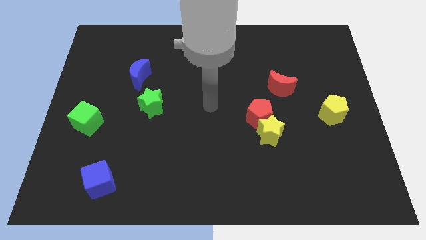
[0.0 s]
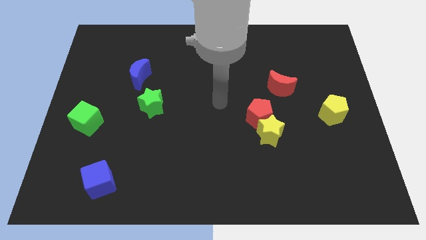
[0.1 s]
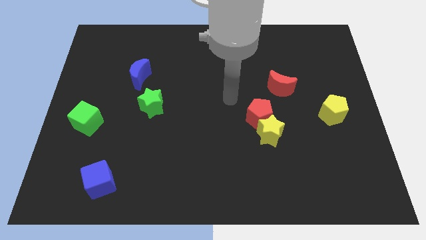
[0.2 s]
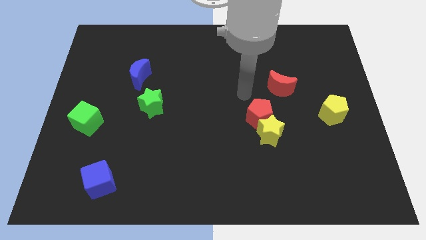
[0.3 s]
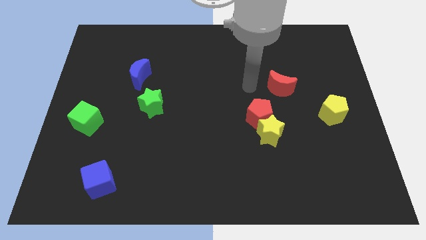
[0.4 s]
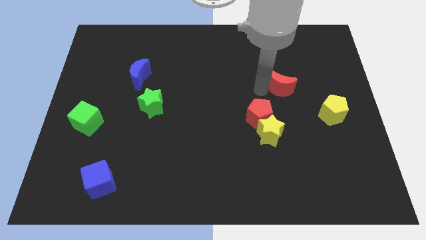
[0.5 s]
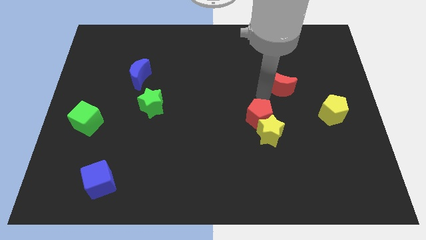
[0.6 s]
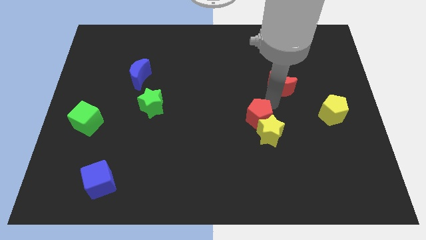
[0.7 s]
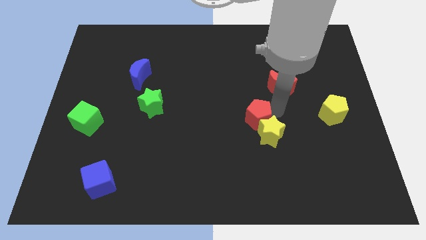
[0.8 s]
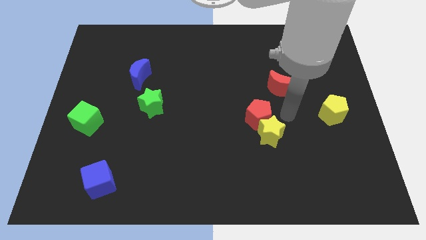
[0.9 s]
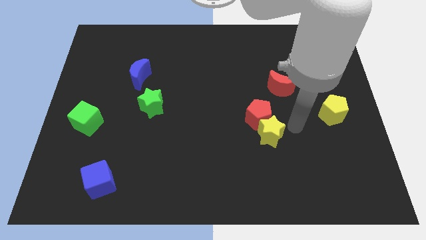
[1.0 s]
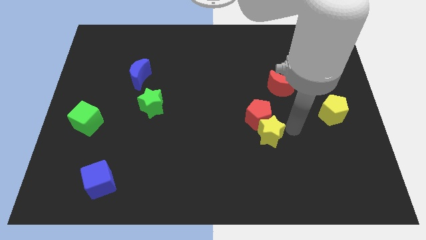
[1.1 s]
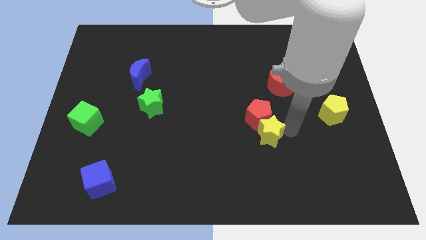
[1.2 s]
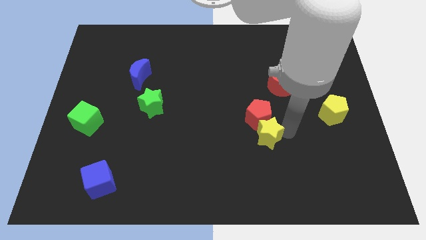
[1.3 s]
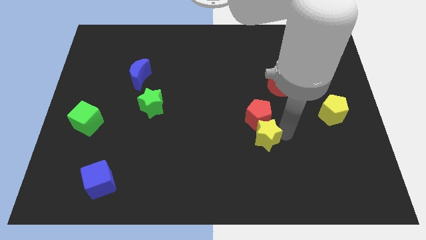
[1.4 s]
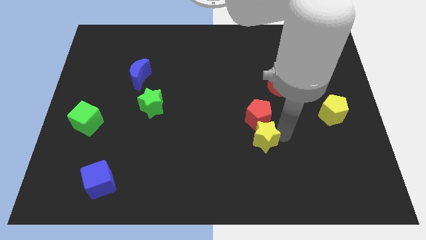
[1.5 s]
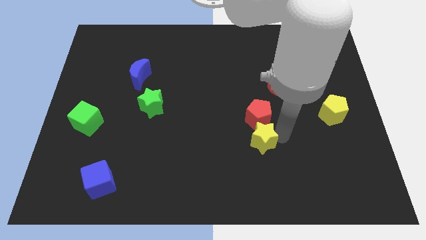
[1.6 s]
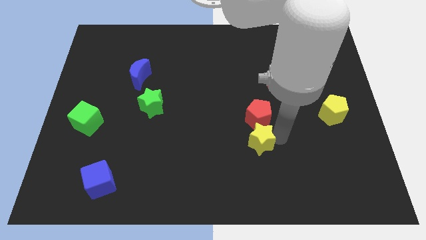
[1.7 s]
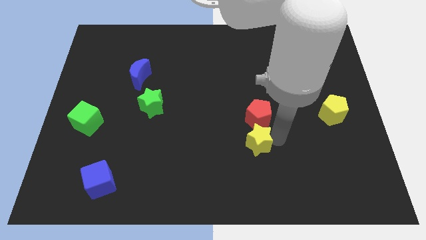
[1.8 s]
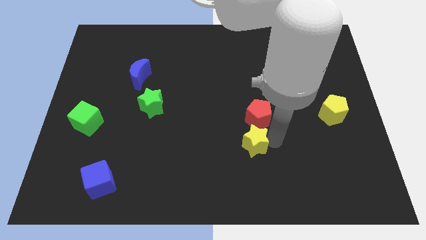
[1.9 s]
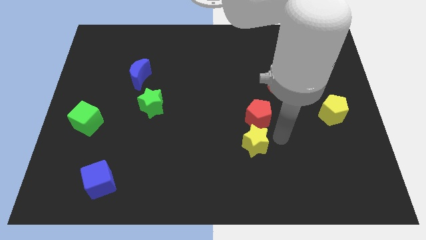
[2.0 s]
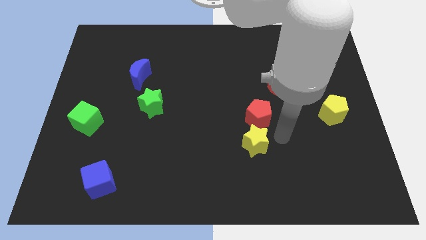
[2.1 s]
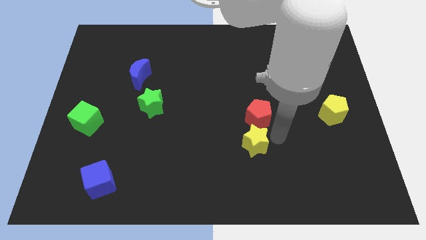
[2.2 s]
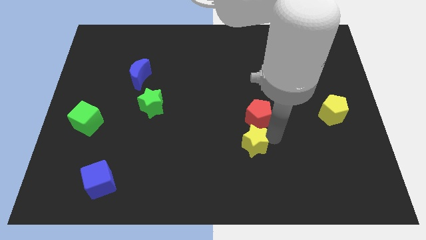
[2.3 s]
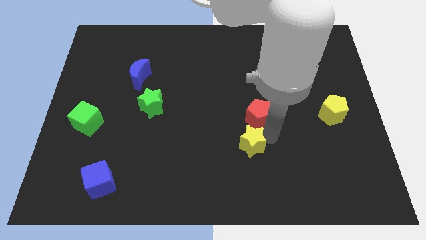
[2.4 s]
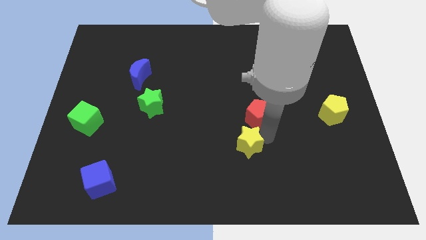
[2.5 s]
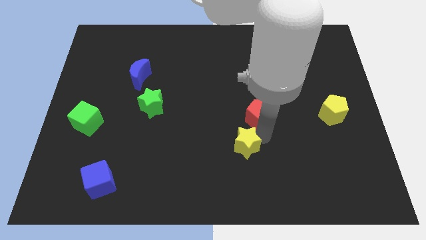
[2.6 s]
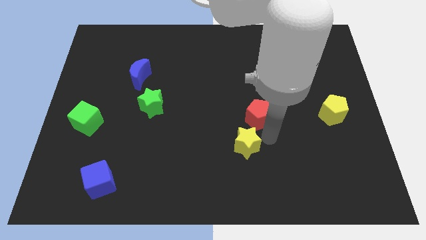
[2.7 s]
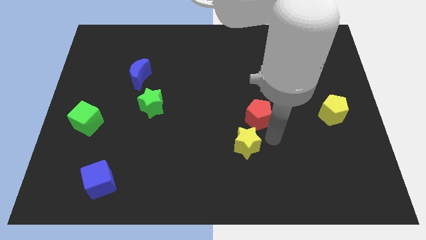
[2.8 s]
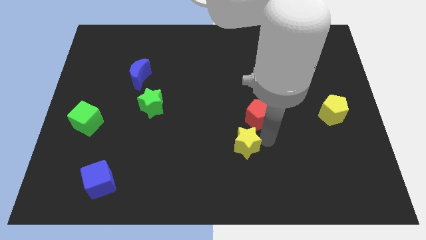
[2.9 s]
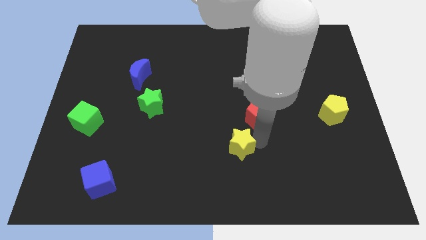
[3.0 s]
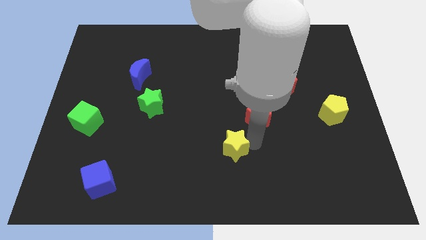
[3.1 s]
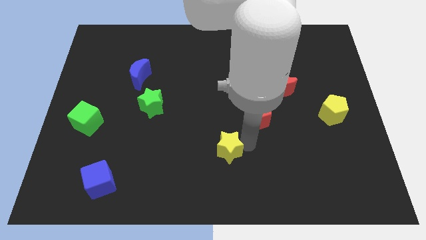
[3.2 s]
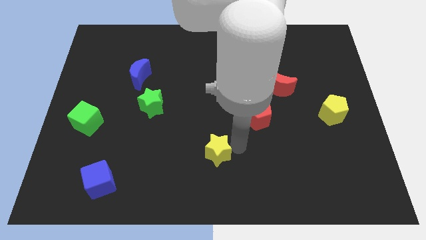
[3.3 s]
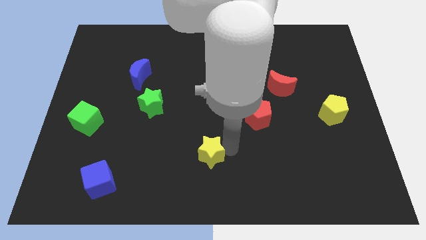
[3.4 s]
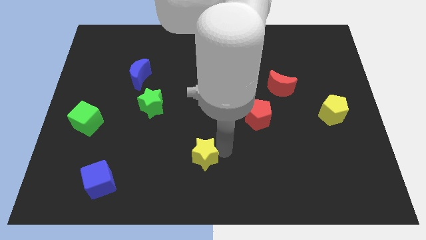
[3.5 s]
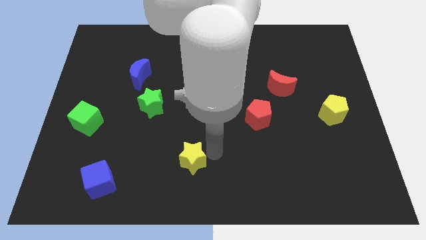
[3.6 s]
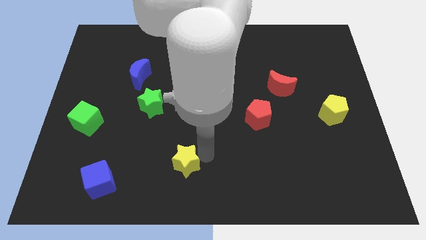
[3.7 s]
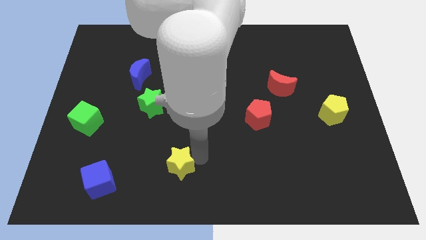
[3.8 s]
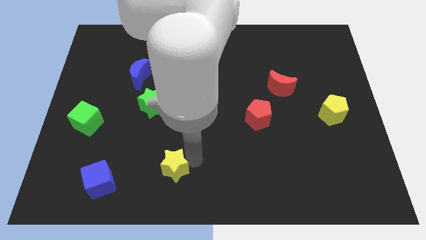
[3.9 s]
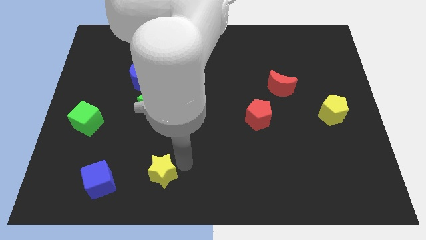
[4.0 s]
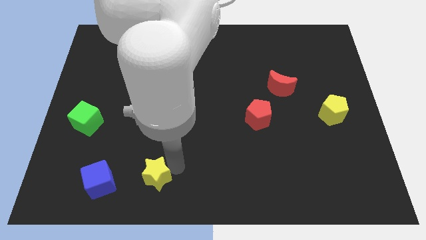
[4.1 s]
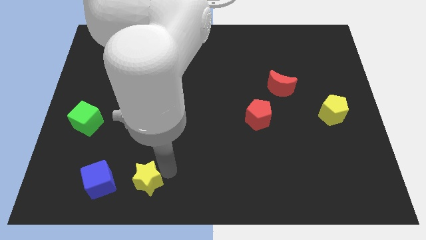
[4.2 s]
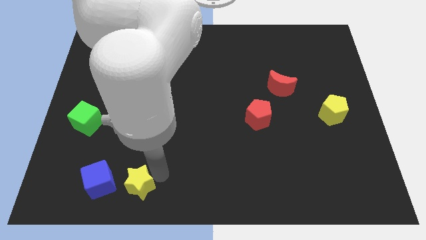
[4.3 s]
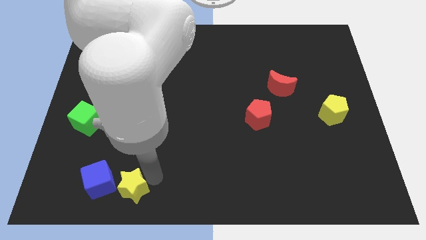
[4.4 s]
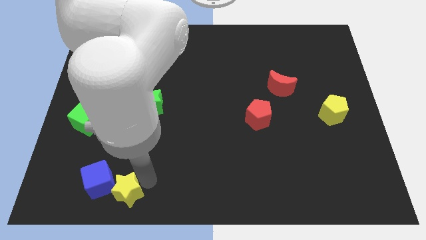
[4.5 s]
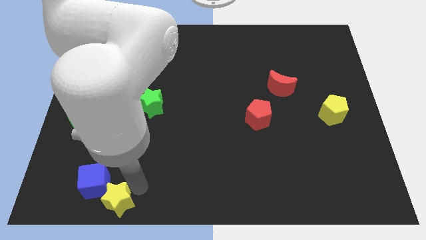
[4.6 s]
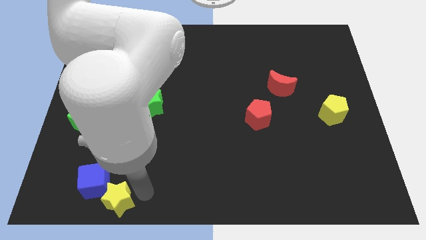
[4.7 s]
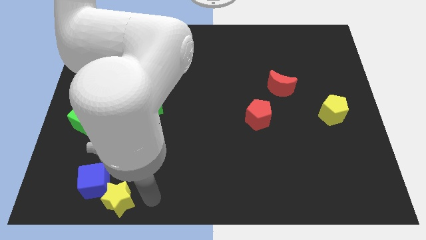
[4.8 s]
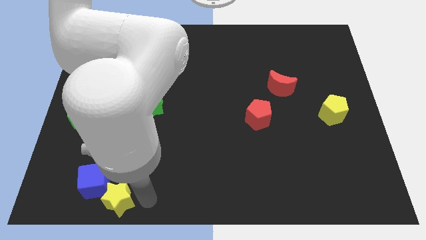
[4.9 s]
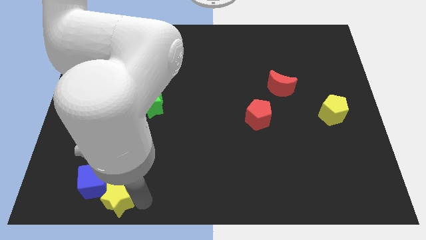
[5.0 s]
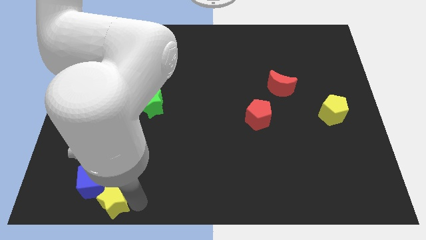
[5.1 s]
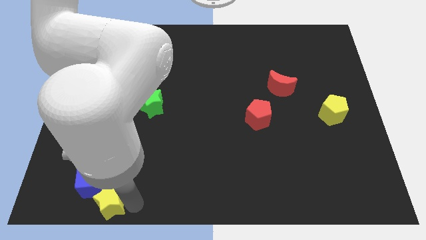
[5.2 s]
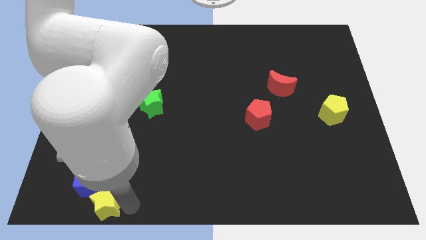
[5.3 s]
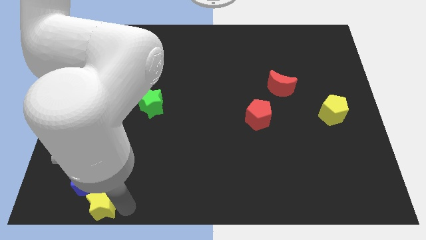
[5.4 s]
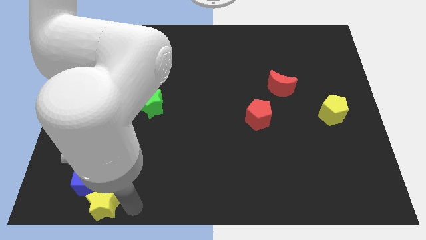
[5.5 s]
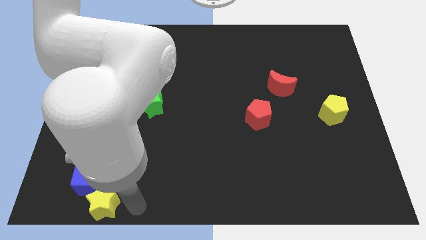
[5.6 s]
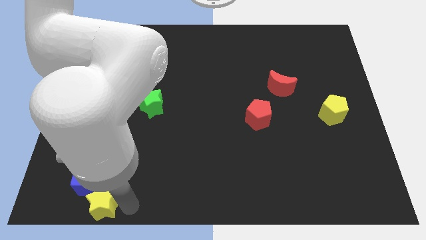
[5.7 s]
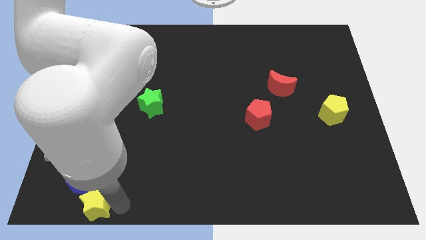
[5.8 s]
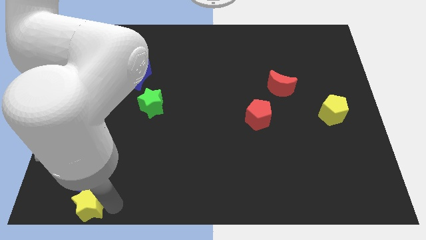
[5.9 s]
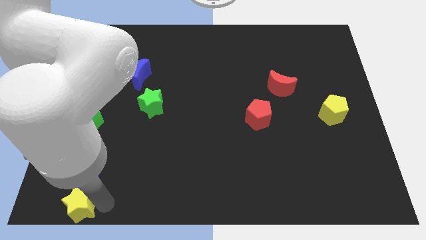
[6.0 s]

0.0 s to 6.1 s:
move the yellow star to the bottom left corner

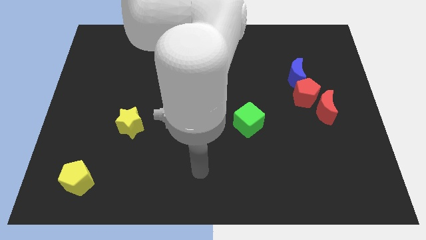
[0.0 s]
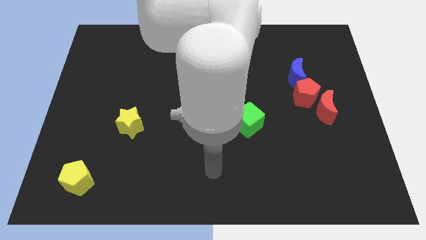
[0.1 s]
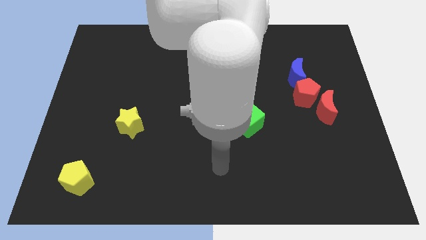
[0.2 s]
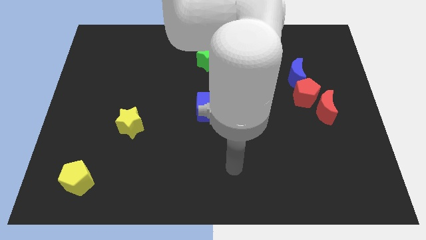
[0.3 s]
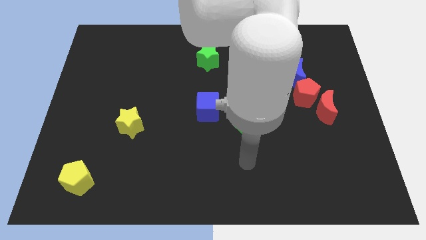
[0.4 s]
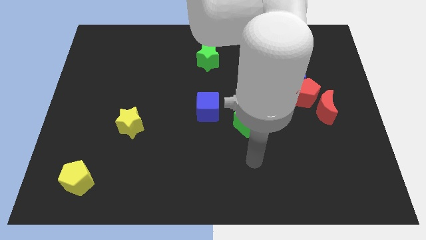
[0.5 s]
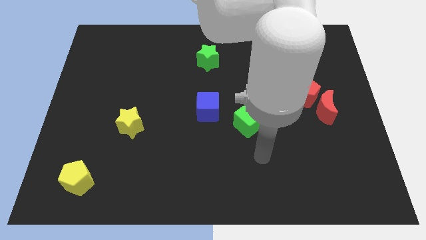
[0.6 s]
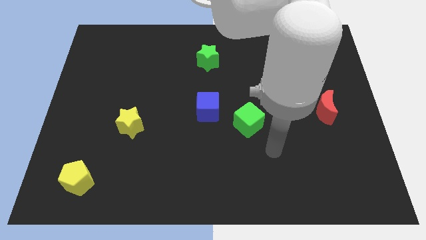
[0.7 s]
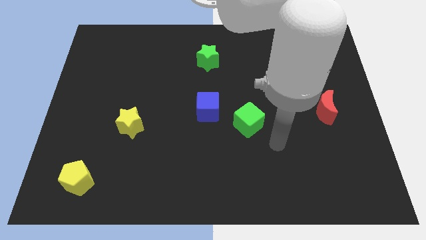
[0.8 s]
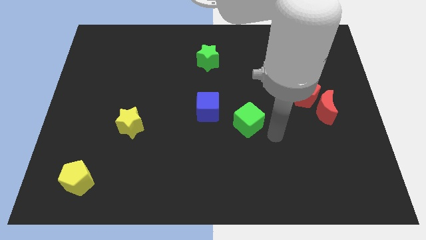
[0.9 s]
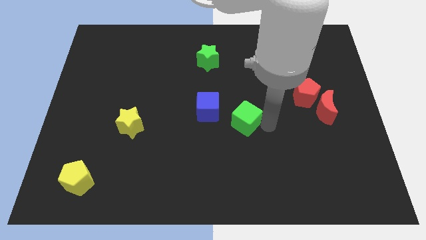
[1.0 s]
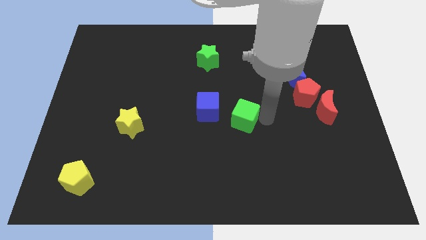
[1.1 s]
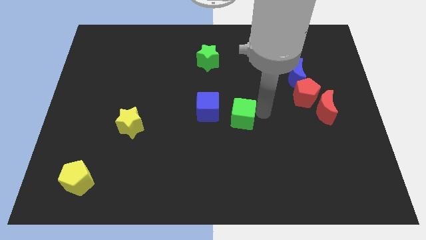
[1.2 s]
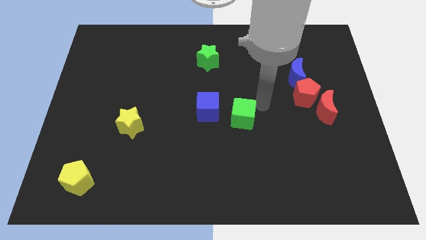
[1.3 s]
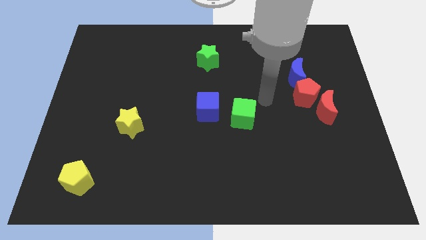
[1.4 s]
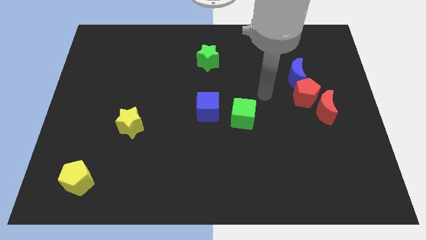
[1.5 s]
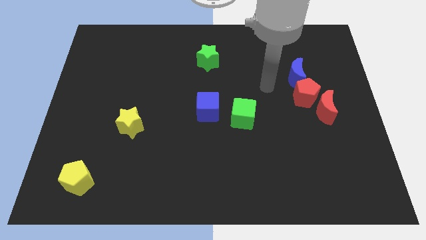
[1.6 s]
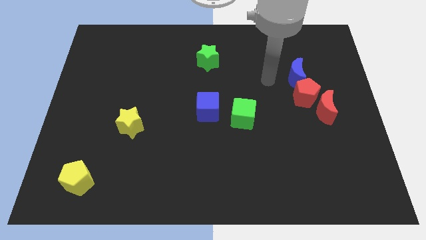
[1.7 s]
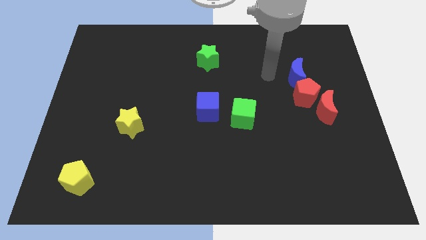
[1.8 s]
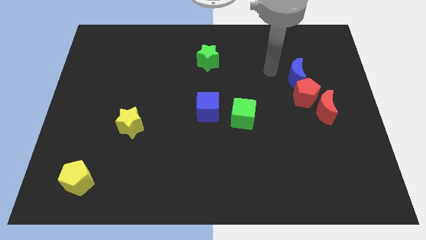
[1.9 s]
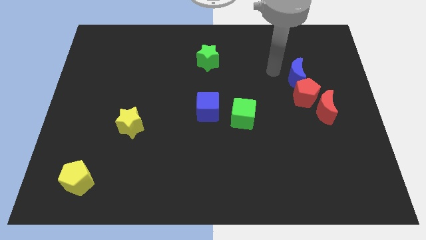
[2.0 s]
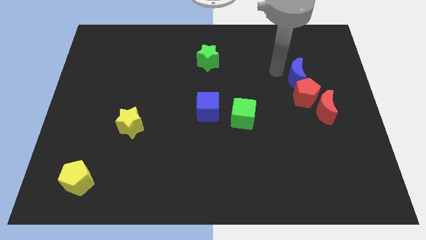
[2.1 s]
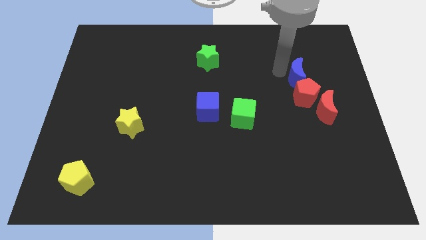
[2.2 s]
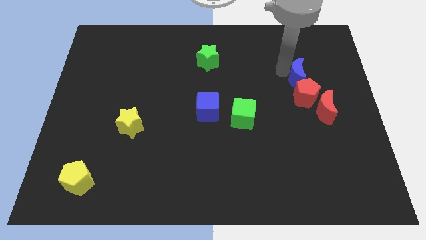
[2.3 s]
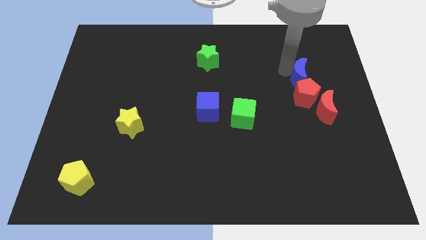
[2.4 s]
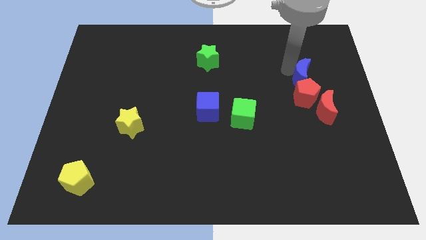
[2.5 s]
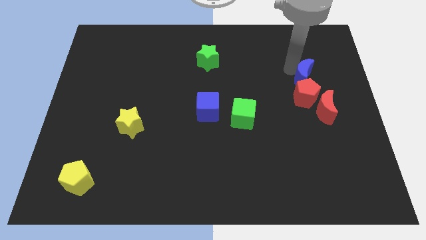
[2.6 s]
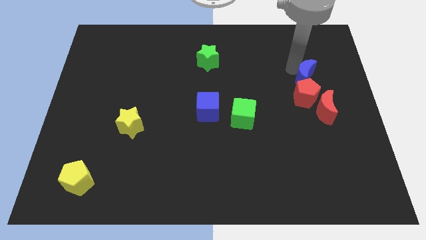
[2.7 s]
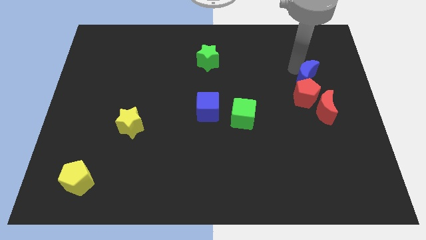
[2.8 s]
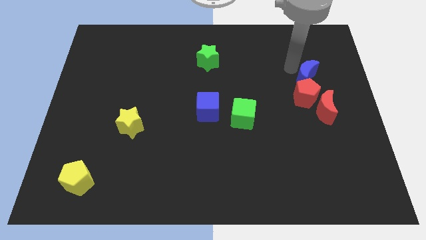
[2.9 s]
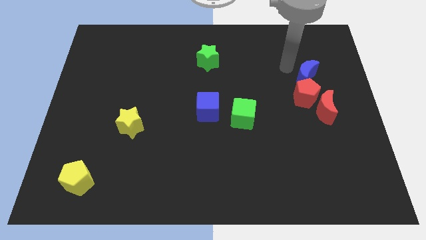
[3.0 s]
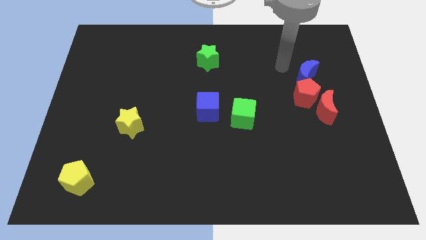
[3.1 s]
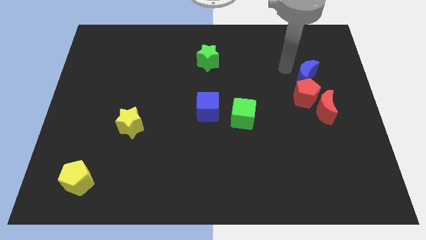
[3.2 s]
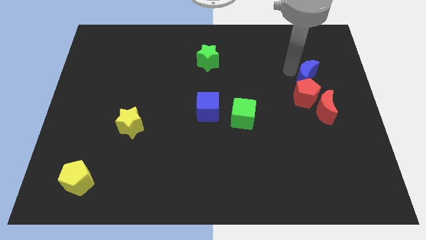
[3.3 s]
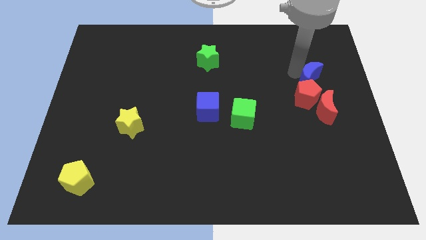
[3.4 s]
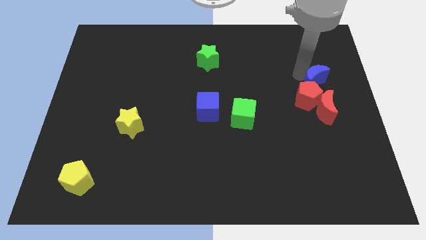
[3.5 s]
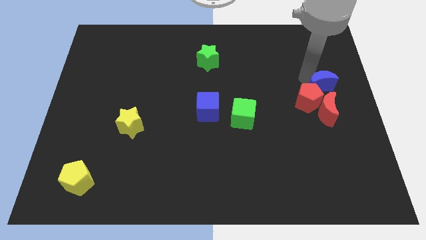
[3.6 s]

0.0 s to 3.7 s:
push the blue moon to the center right
